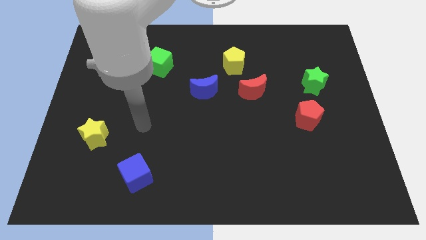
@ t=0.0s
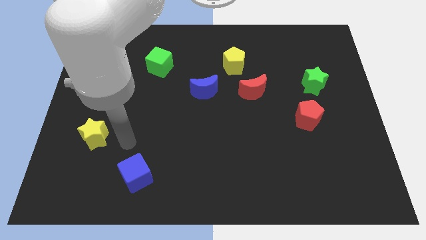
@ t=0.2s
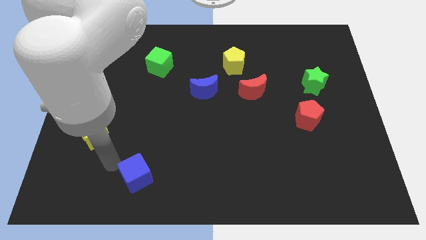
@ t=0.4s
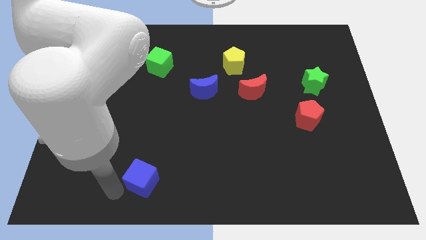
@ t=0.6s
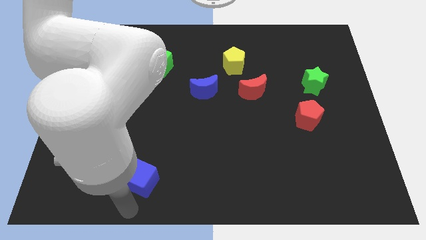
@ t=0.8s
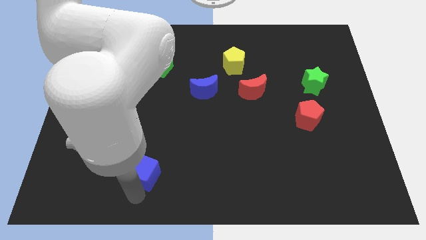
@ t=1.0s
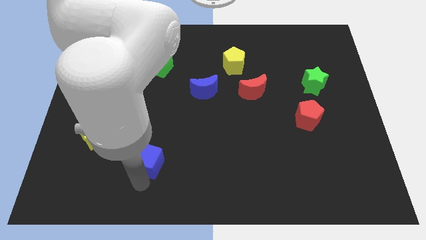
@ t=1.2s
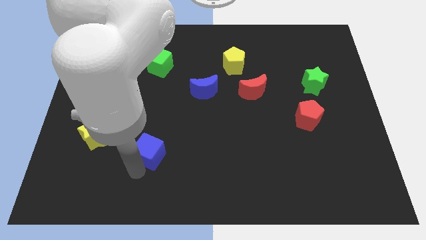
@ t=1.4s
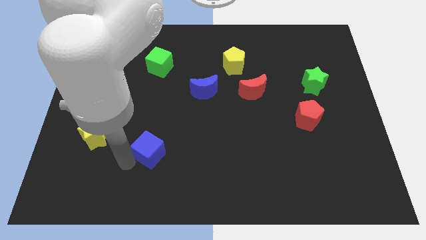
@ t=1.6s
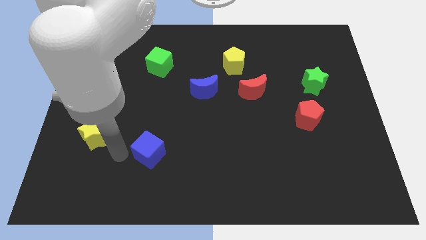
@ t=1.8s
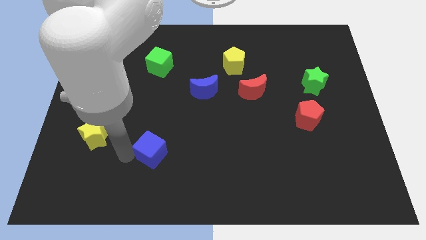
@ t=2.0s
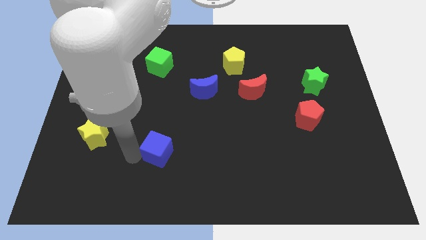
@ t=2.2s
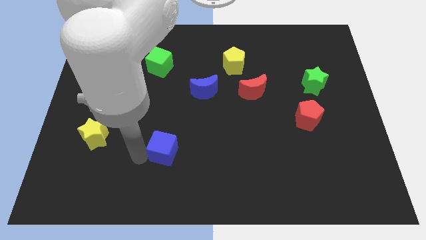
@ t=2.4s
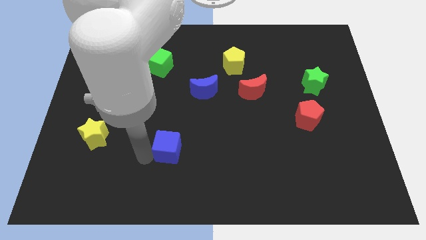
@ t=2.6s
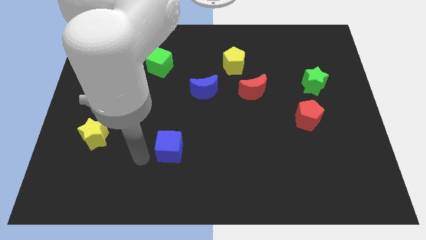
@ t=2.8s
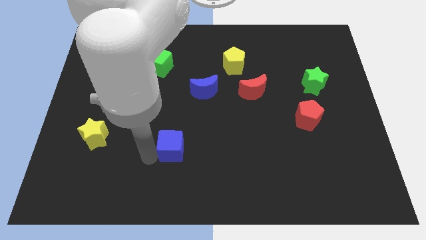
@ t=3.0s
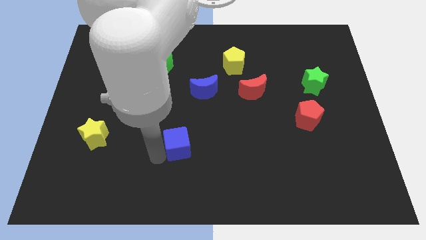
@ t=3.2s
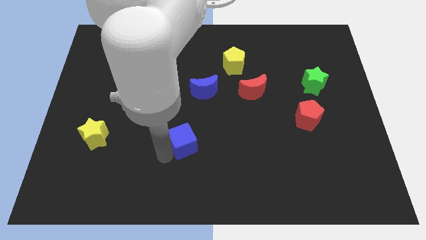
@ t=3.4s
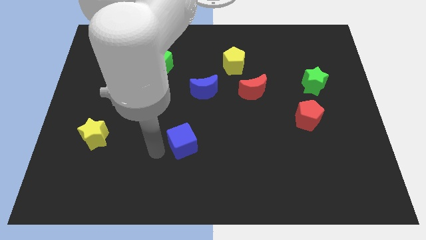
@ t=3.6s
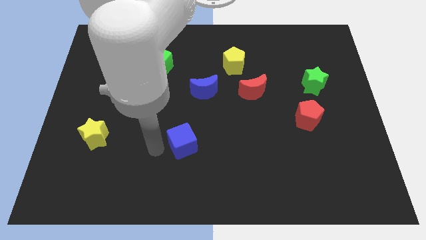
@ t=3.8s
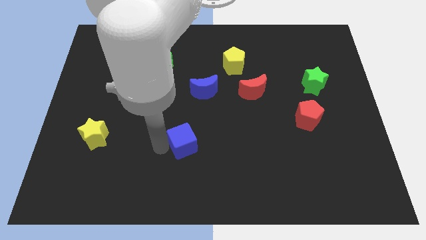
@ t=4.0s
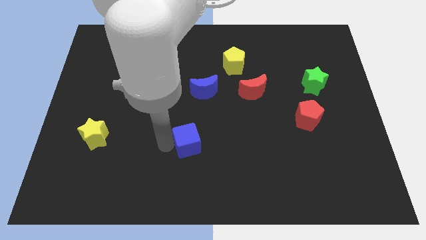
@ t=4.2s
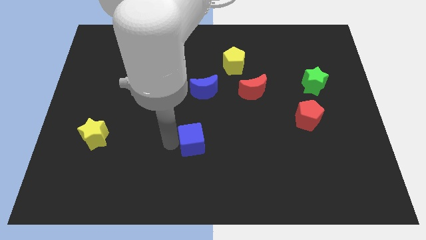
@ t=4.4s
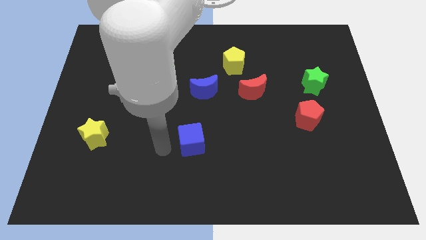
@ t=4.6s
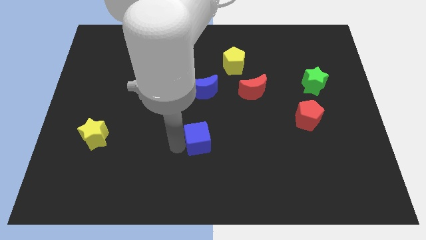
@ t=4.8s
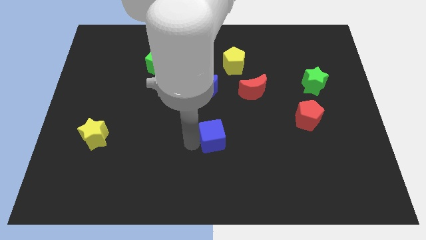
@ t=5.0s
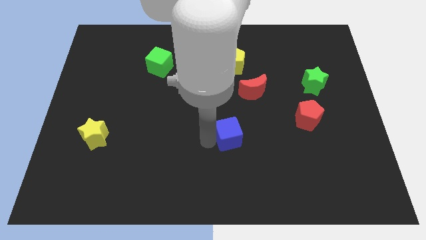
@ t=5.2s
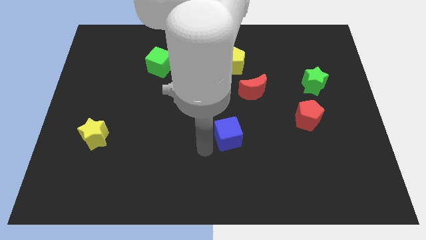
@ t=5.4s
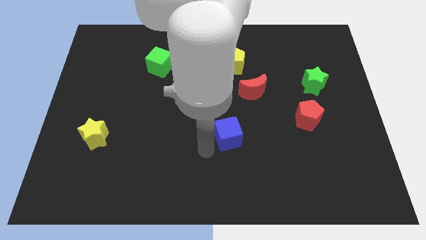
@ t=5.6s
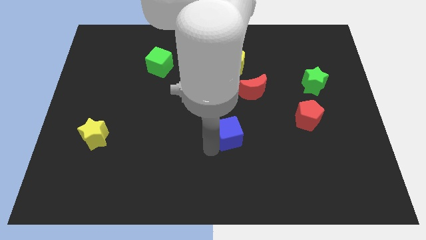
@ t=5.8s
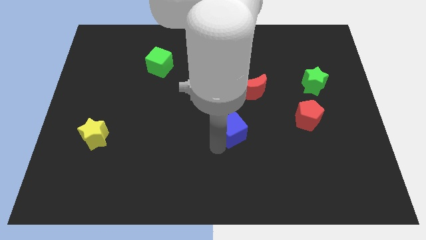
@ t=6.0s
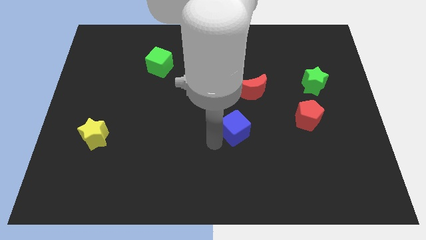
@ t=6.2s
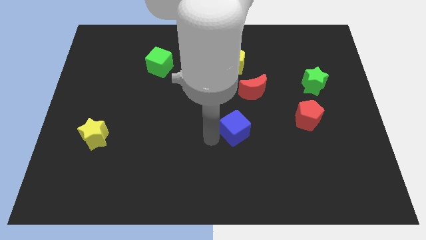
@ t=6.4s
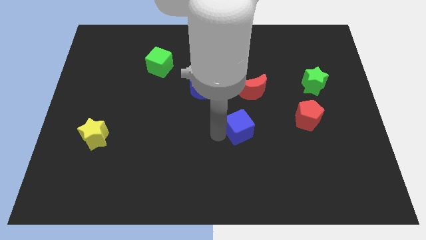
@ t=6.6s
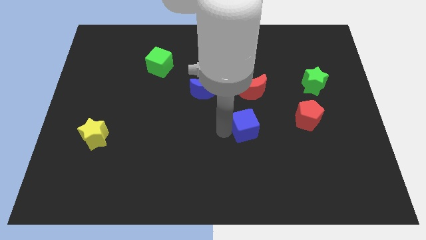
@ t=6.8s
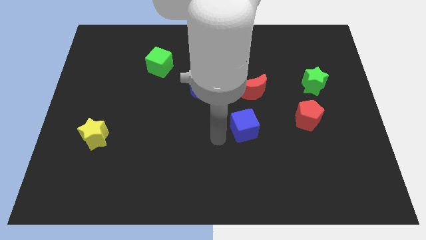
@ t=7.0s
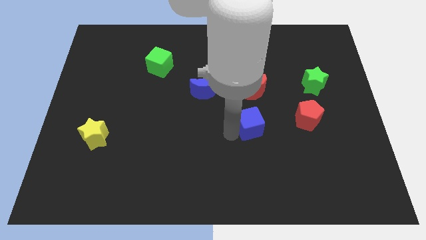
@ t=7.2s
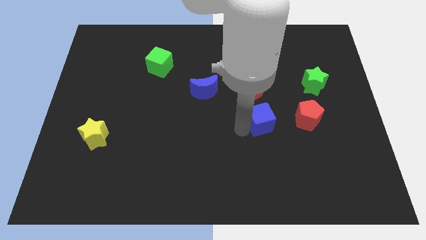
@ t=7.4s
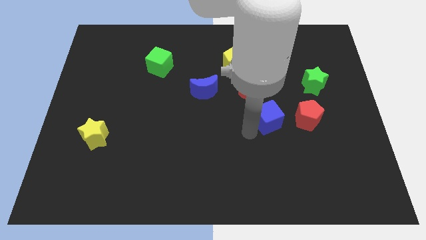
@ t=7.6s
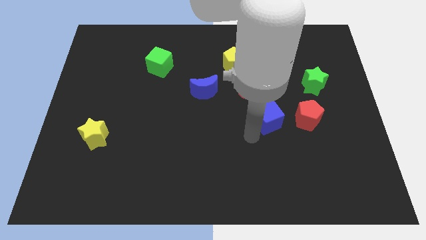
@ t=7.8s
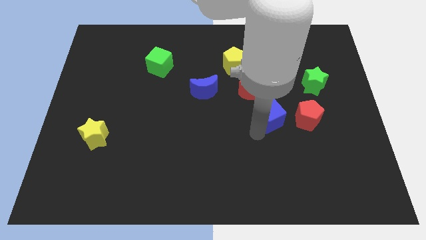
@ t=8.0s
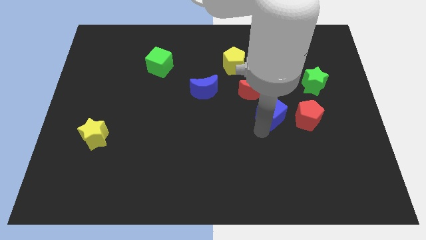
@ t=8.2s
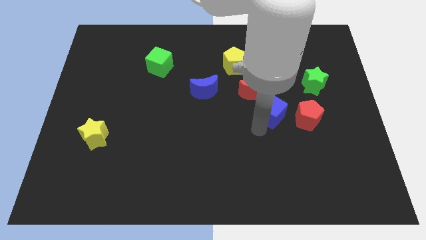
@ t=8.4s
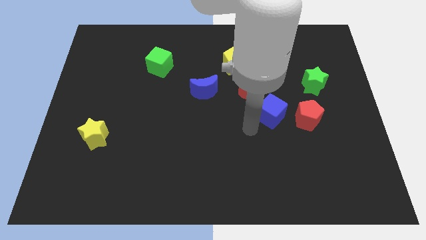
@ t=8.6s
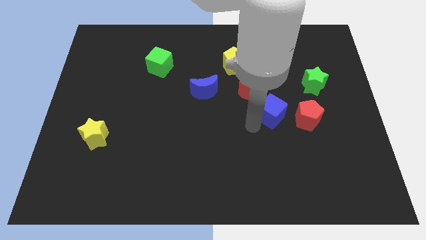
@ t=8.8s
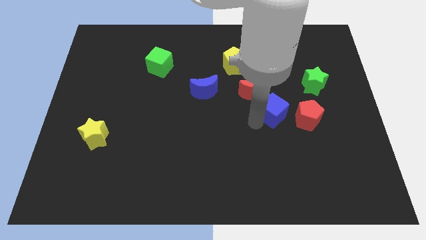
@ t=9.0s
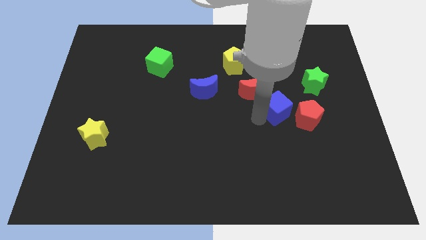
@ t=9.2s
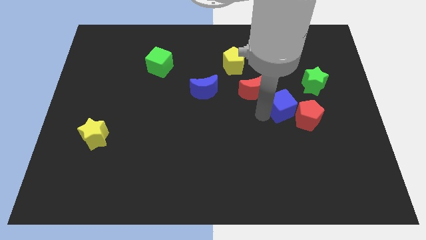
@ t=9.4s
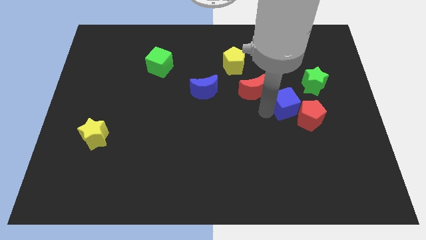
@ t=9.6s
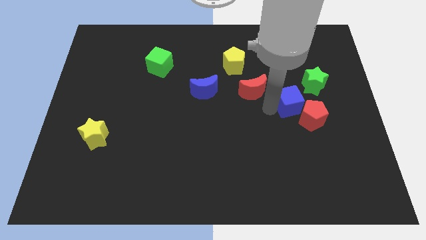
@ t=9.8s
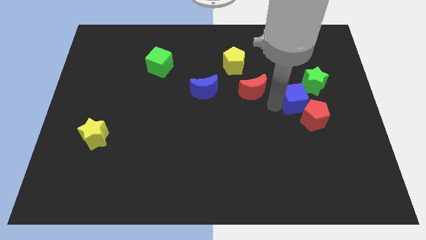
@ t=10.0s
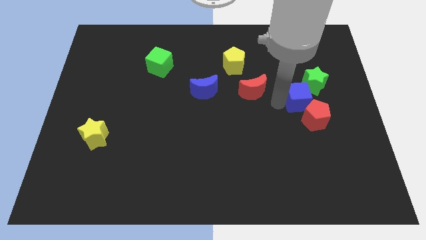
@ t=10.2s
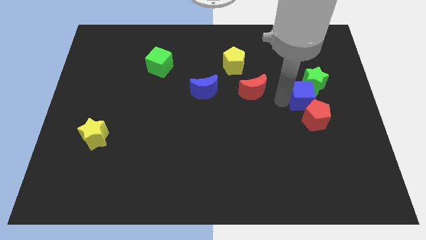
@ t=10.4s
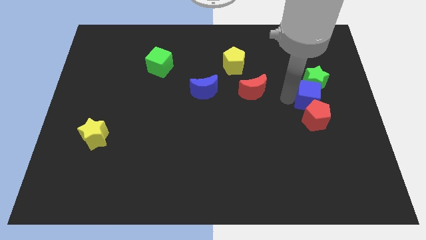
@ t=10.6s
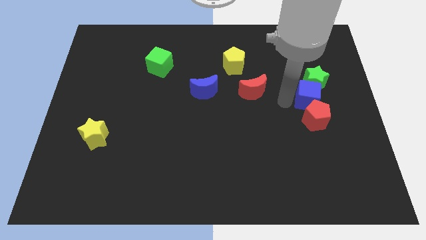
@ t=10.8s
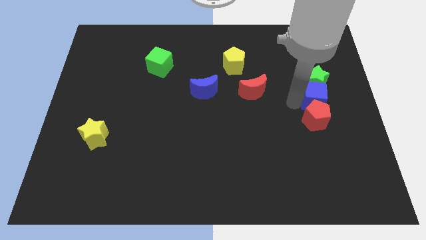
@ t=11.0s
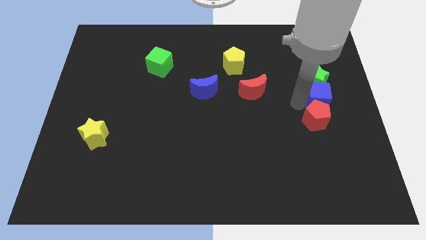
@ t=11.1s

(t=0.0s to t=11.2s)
move the blue cube to the right side
